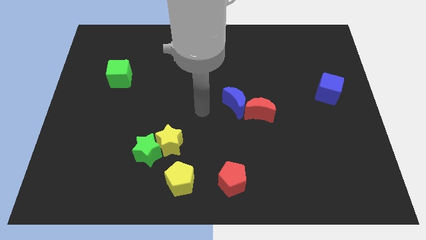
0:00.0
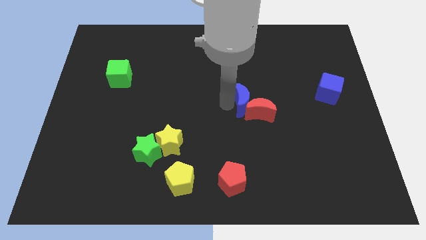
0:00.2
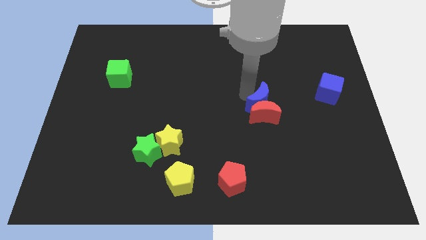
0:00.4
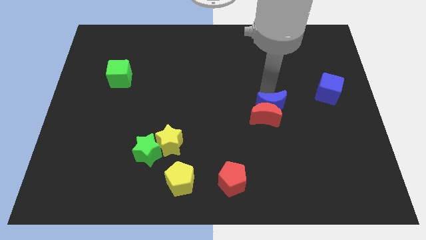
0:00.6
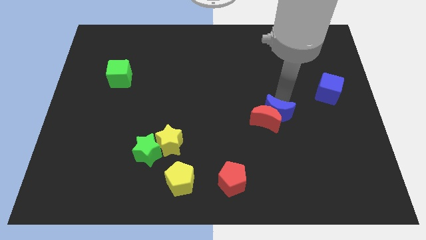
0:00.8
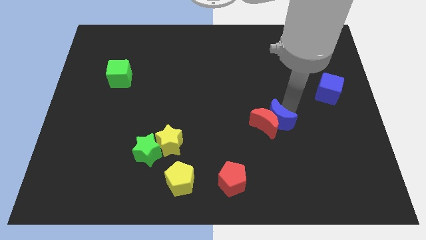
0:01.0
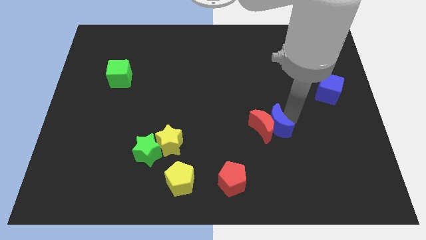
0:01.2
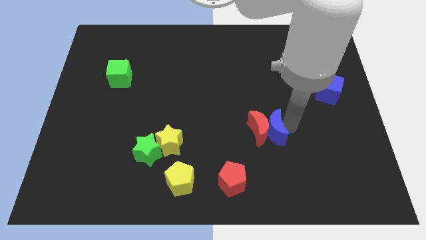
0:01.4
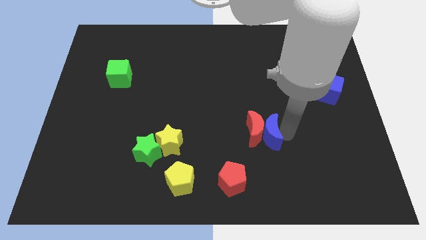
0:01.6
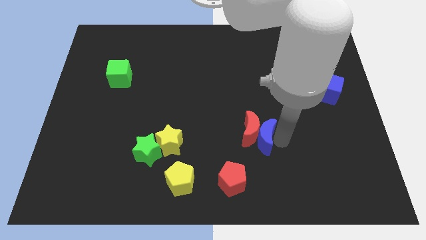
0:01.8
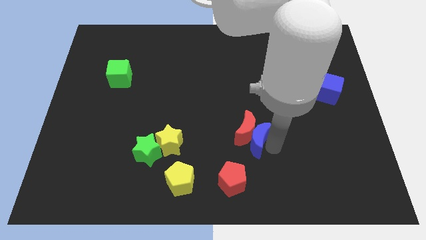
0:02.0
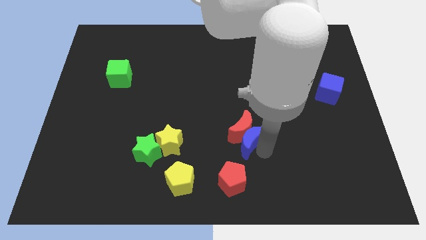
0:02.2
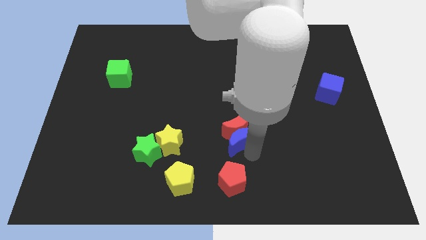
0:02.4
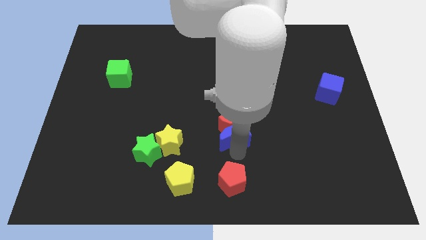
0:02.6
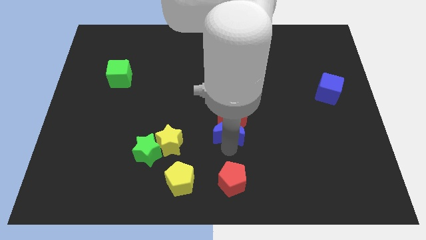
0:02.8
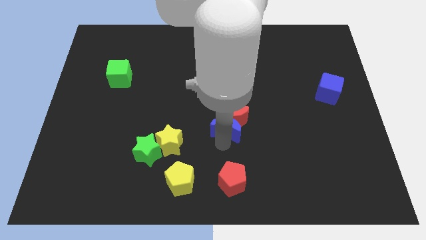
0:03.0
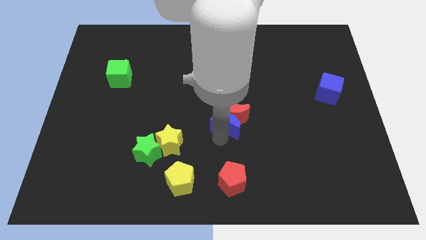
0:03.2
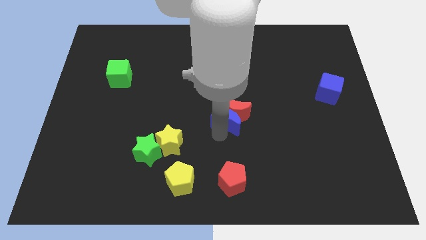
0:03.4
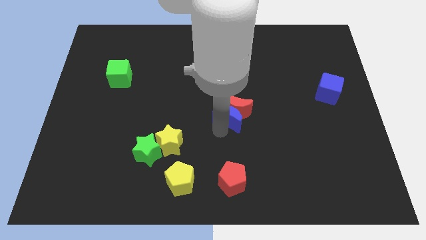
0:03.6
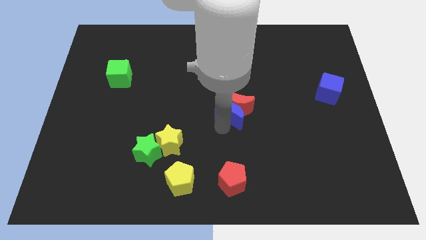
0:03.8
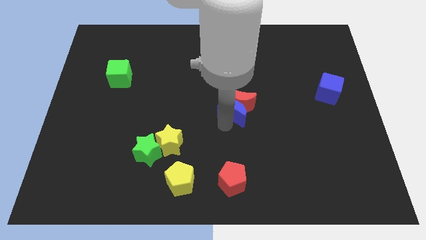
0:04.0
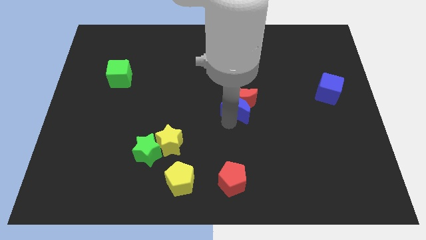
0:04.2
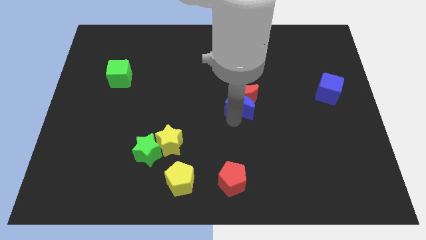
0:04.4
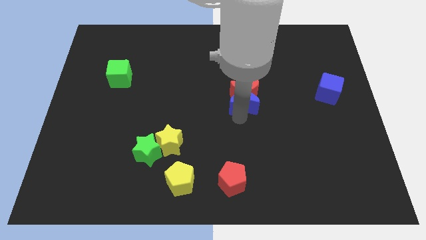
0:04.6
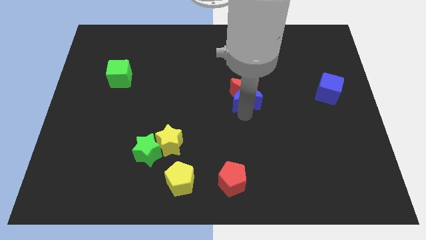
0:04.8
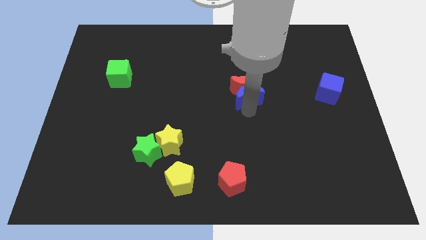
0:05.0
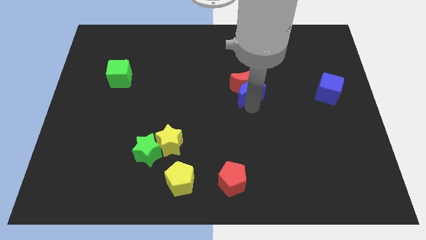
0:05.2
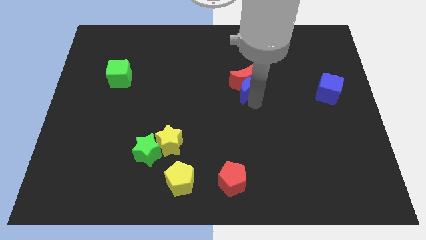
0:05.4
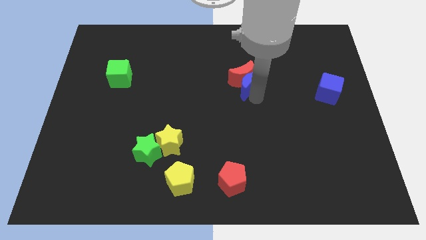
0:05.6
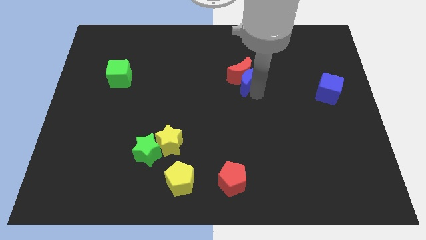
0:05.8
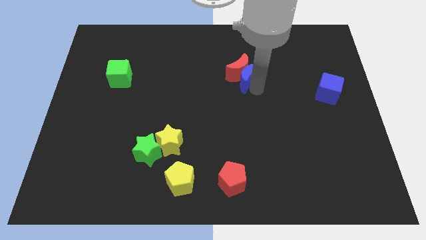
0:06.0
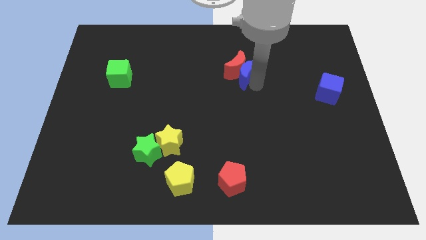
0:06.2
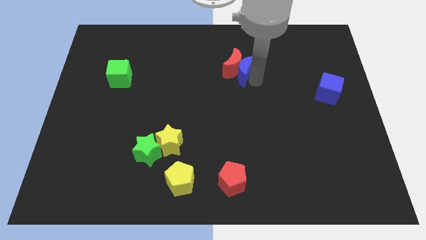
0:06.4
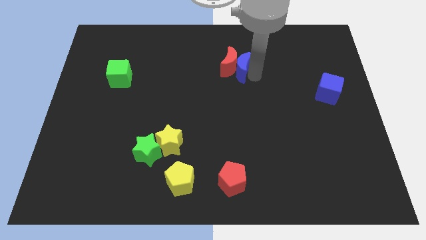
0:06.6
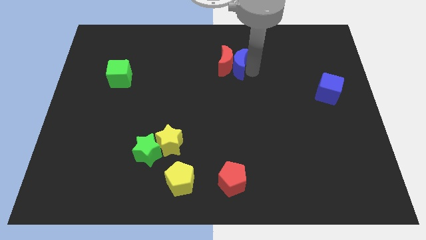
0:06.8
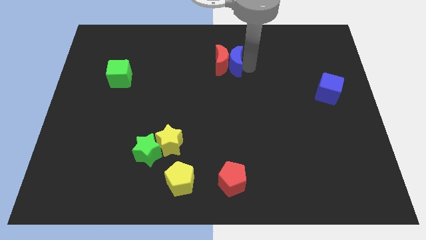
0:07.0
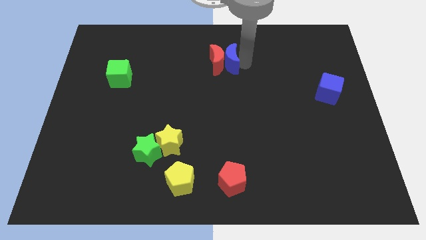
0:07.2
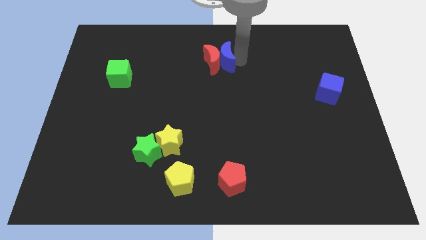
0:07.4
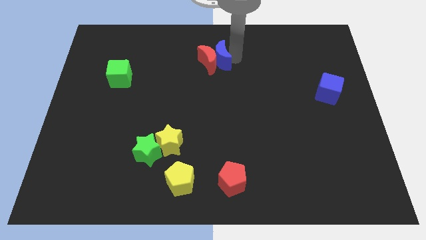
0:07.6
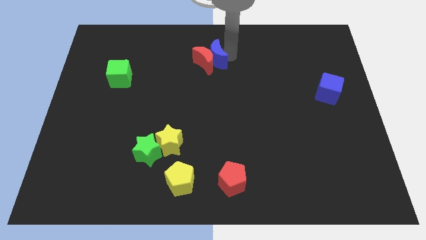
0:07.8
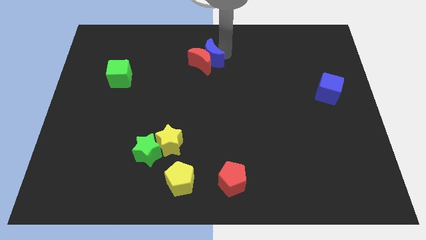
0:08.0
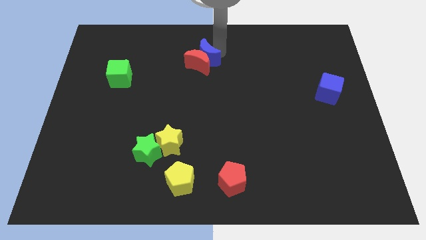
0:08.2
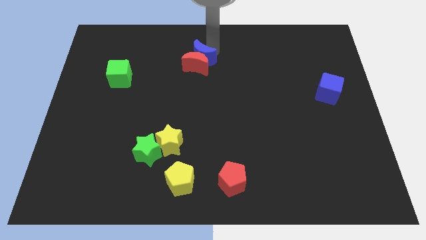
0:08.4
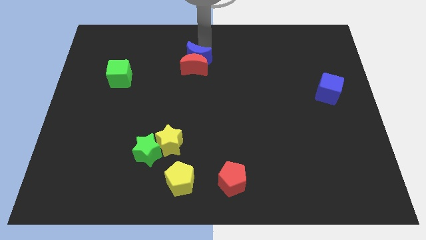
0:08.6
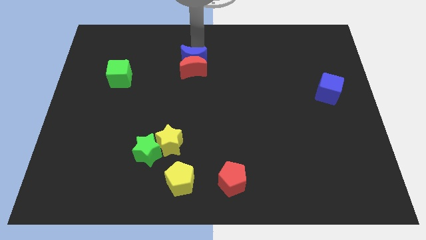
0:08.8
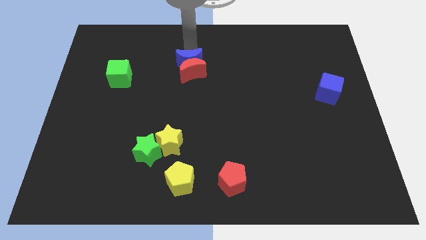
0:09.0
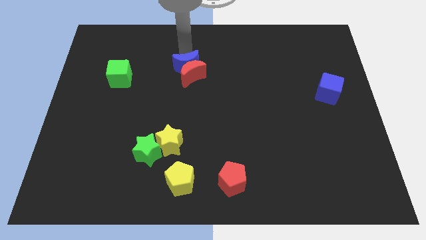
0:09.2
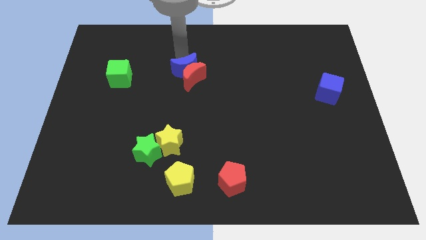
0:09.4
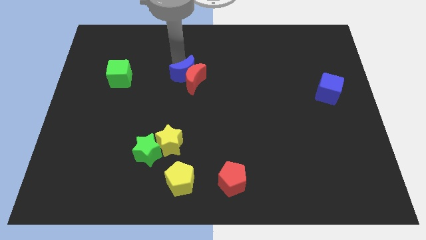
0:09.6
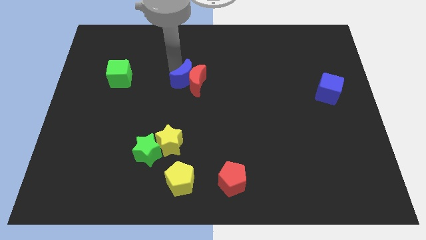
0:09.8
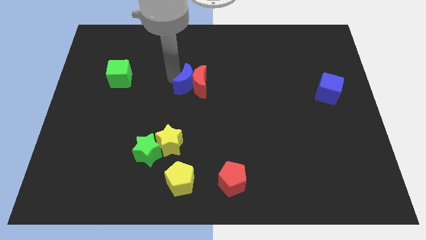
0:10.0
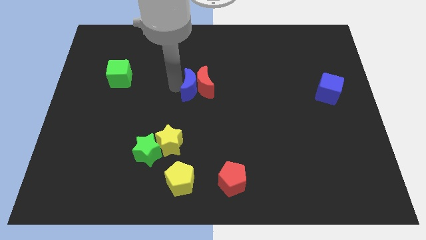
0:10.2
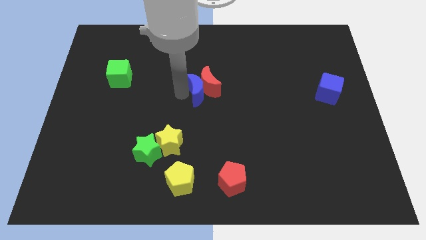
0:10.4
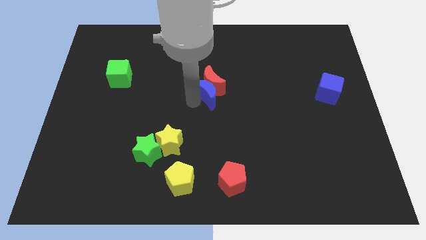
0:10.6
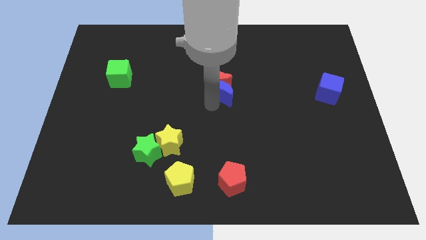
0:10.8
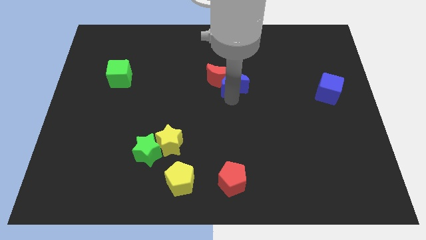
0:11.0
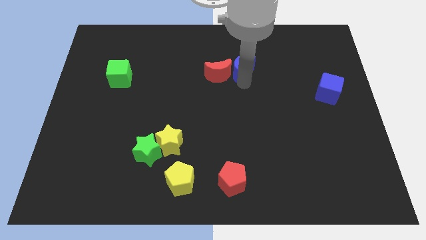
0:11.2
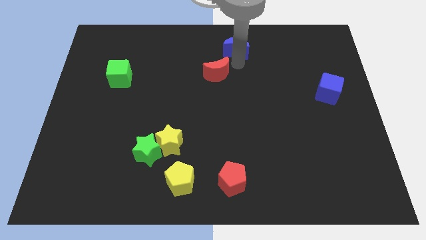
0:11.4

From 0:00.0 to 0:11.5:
move the red moon away from the blue moon

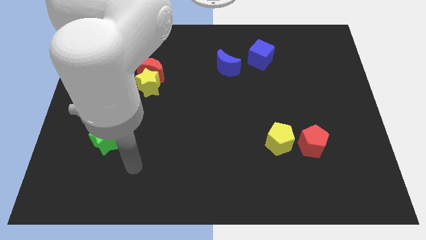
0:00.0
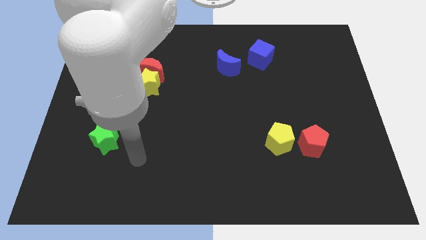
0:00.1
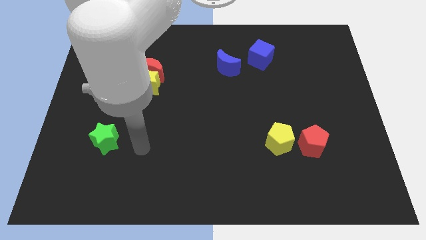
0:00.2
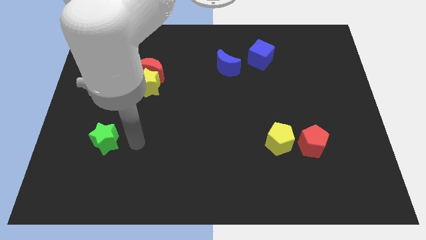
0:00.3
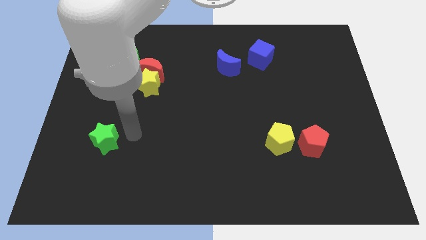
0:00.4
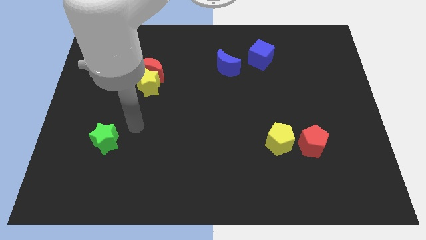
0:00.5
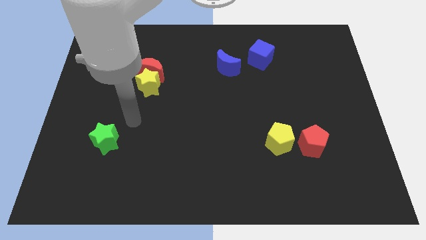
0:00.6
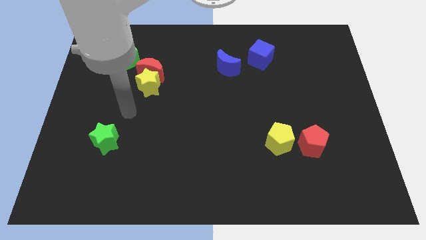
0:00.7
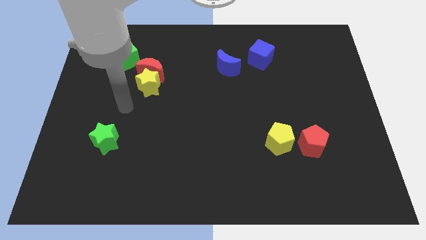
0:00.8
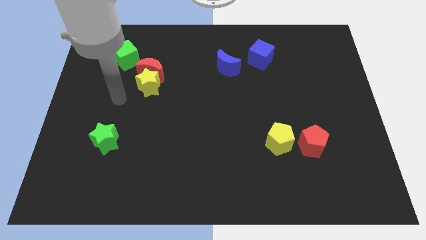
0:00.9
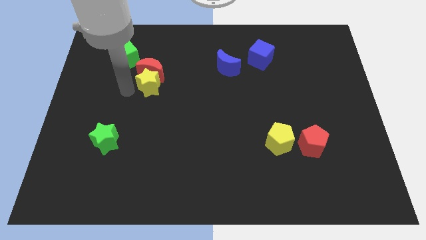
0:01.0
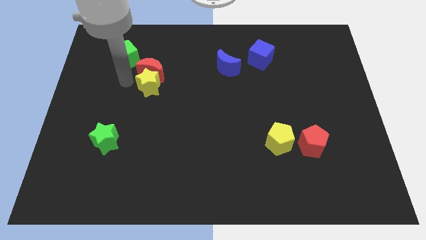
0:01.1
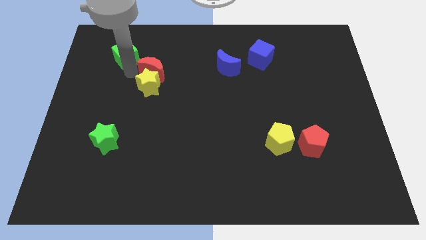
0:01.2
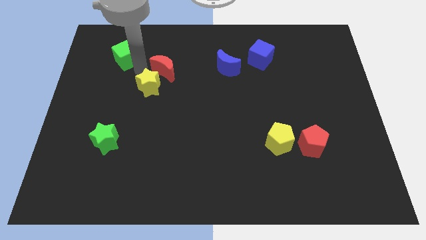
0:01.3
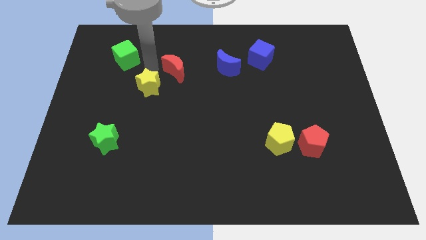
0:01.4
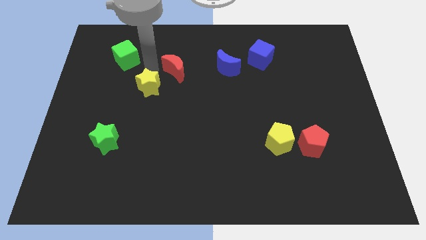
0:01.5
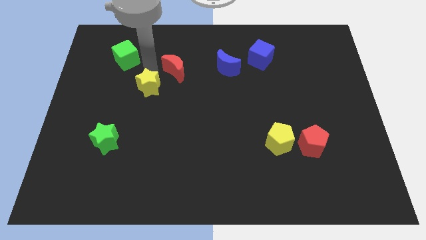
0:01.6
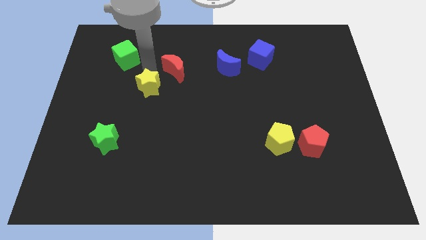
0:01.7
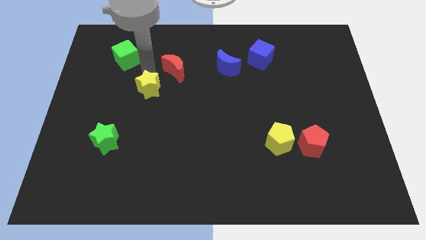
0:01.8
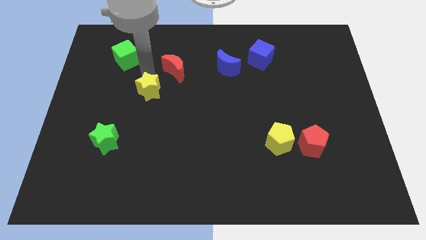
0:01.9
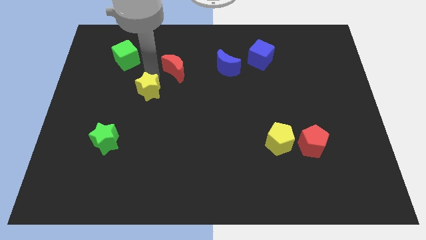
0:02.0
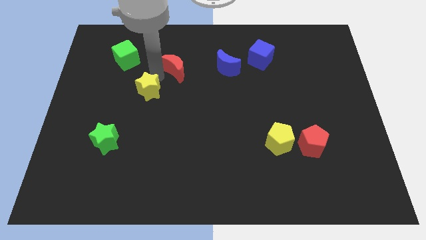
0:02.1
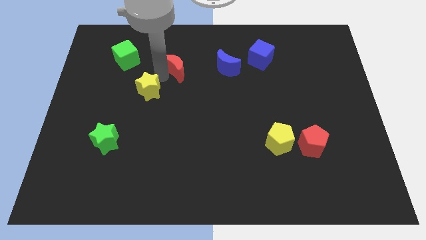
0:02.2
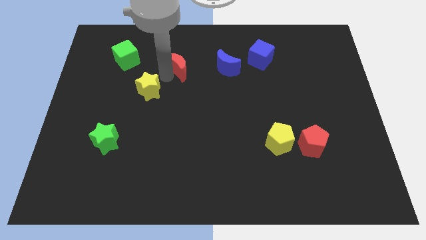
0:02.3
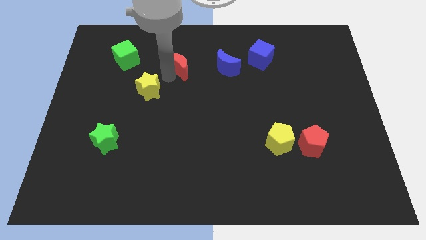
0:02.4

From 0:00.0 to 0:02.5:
pull the yellow star apart from the red moon

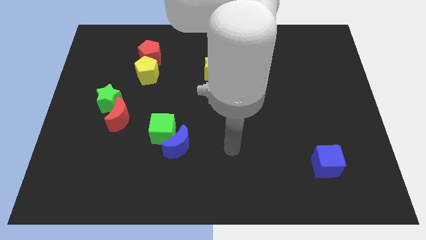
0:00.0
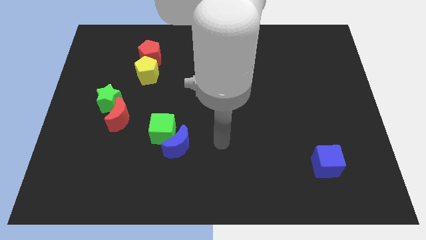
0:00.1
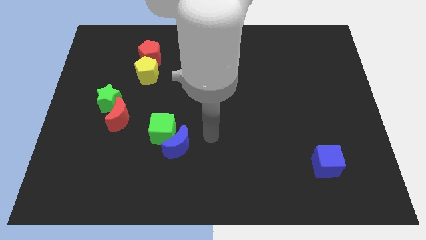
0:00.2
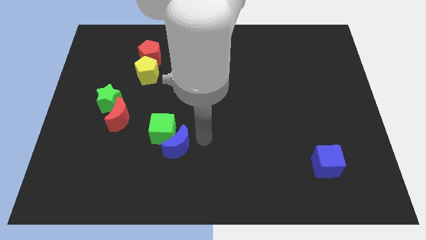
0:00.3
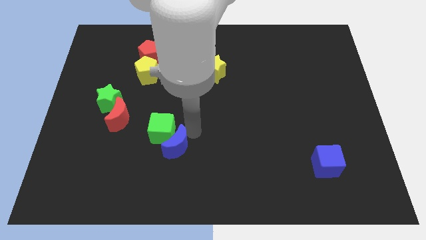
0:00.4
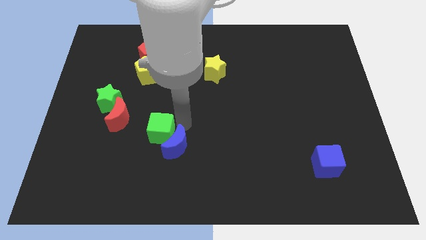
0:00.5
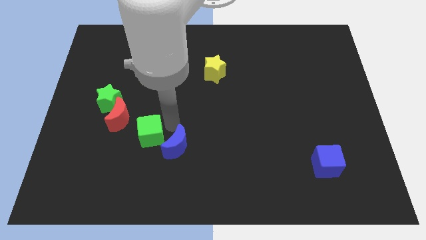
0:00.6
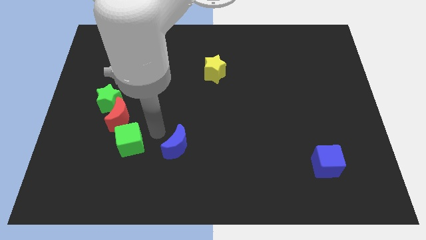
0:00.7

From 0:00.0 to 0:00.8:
separate the blue moon from the green cube

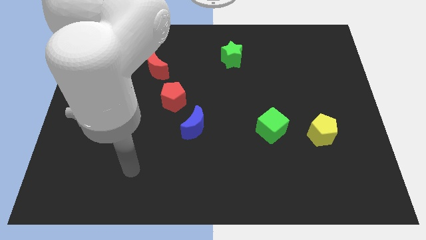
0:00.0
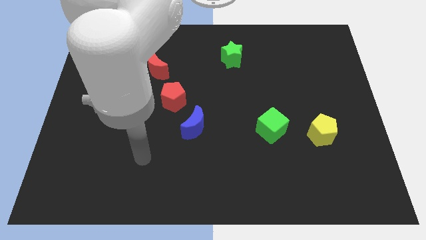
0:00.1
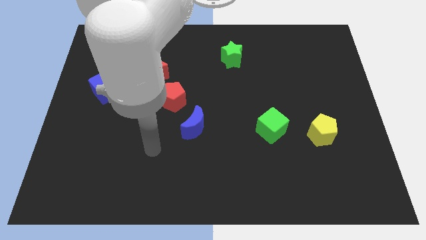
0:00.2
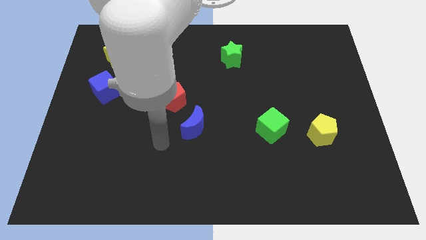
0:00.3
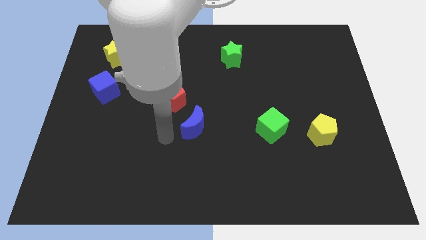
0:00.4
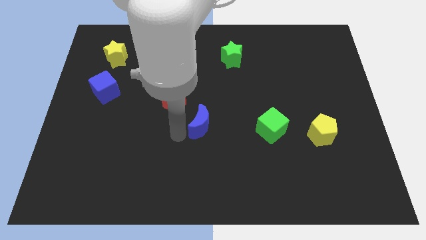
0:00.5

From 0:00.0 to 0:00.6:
pull the red pentagon apart from the blue moon
